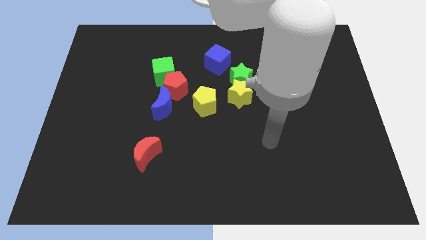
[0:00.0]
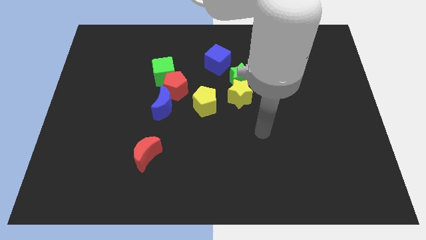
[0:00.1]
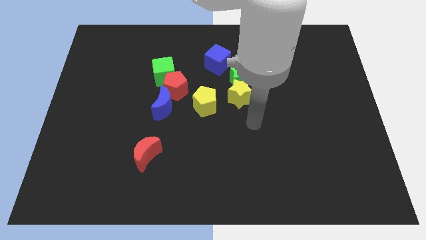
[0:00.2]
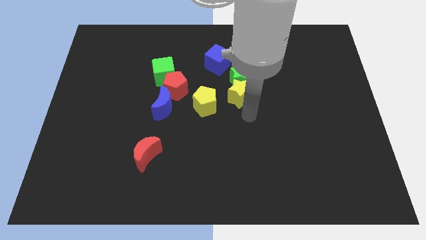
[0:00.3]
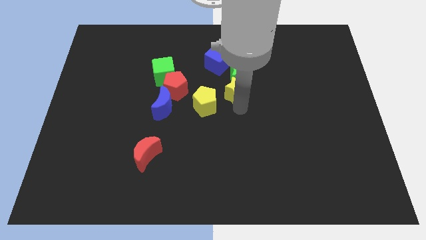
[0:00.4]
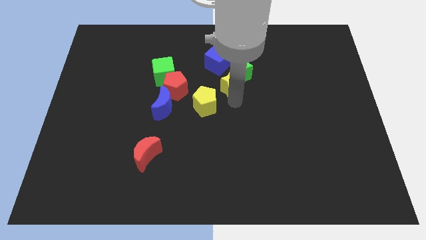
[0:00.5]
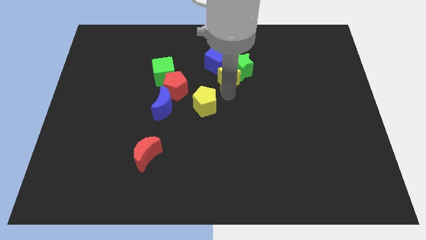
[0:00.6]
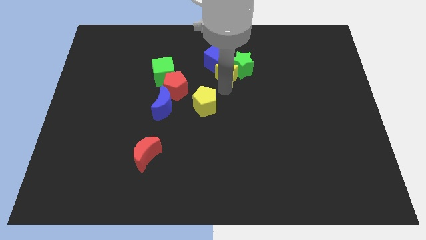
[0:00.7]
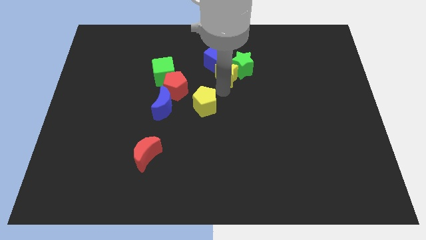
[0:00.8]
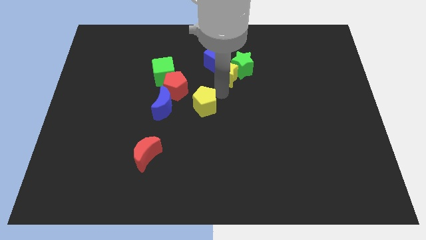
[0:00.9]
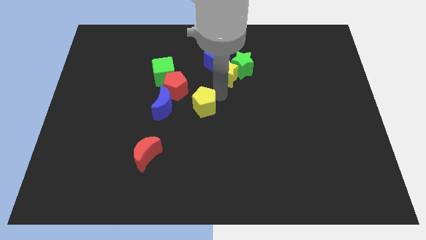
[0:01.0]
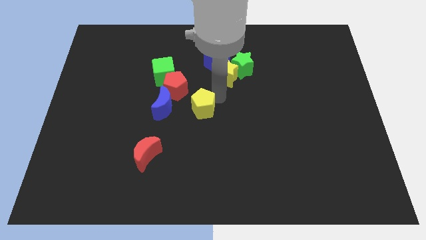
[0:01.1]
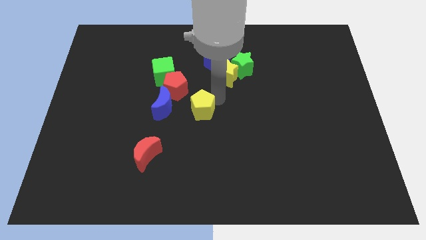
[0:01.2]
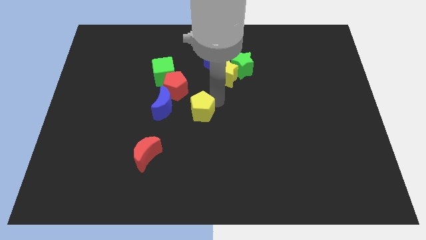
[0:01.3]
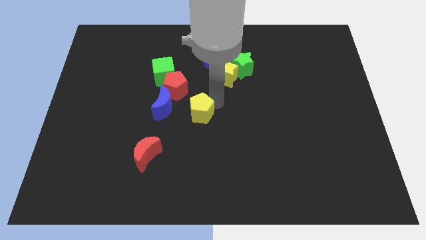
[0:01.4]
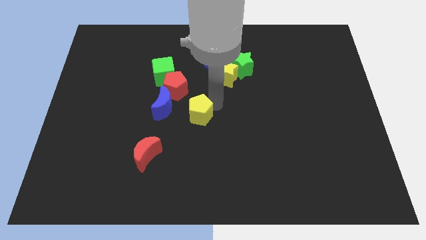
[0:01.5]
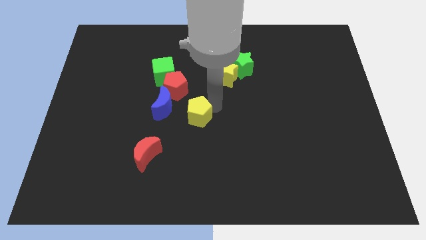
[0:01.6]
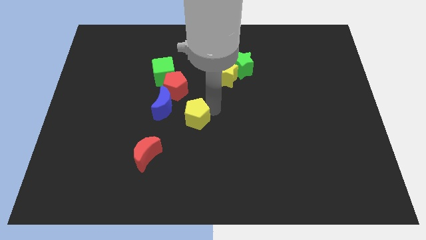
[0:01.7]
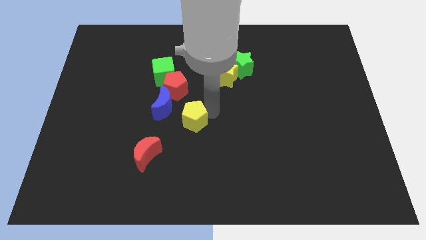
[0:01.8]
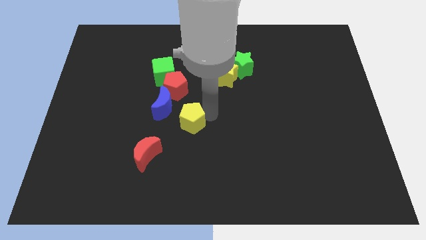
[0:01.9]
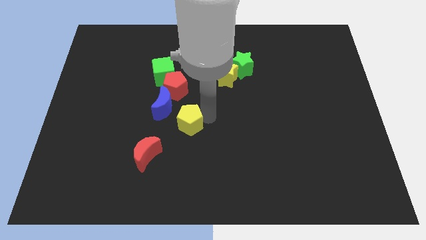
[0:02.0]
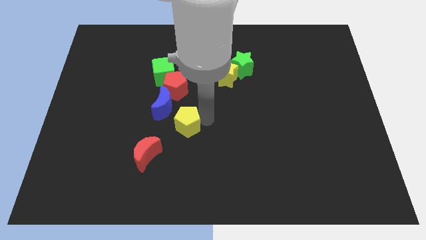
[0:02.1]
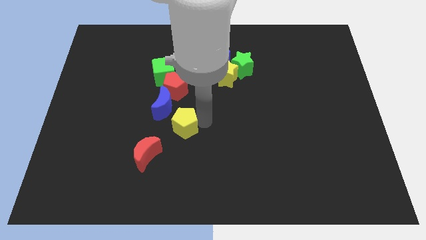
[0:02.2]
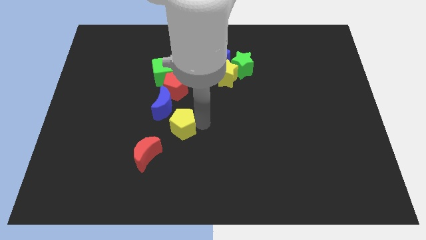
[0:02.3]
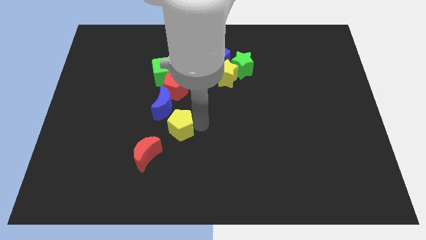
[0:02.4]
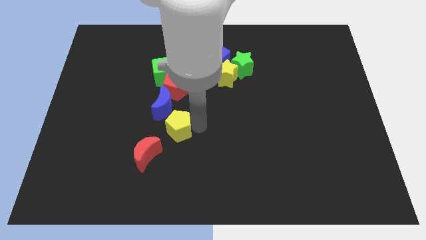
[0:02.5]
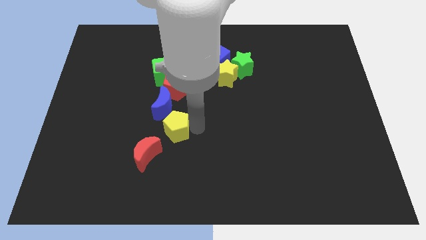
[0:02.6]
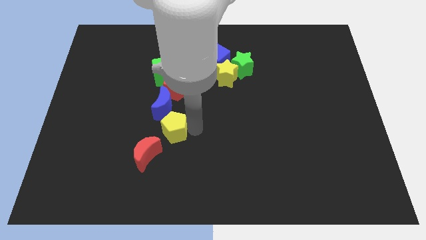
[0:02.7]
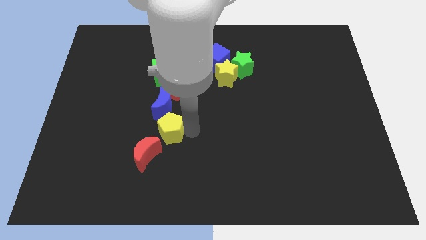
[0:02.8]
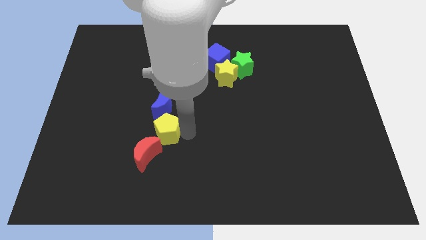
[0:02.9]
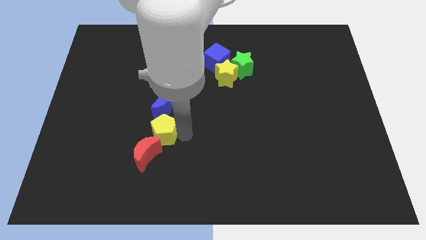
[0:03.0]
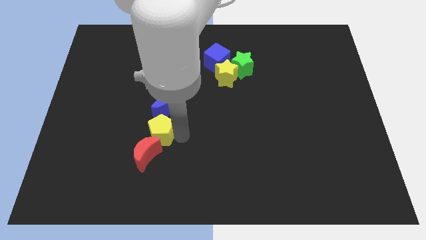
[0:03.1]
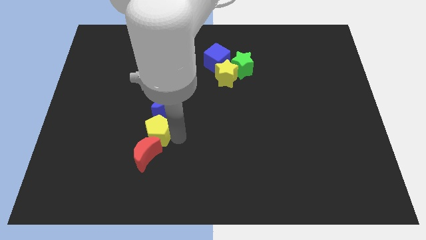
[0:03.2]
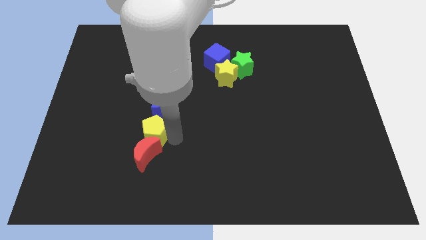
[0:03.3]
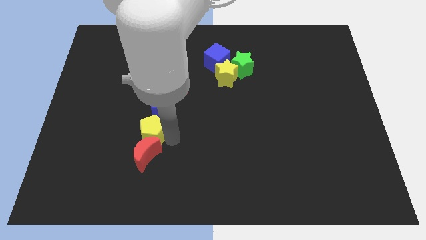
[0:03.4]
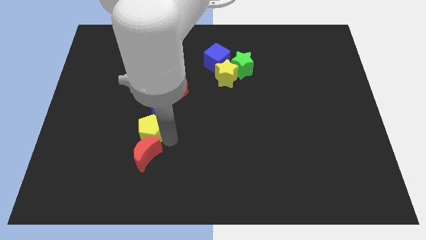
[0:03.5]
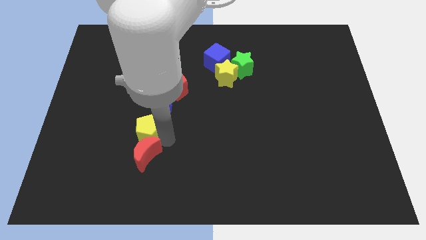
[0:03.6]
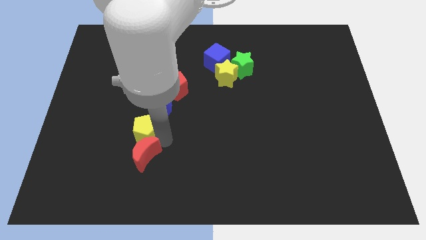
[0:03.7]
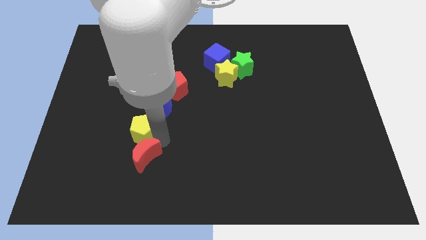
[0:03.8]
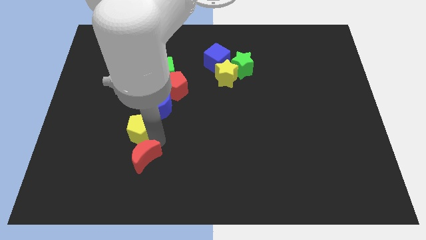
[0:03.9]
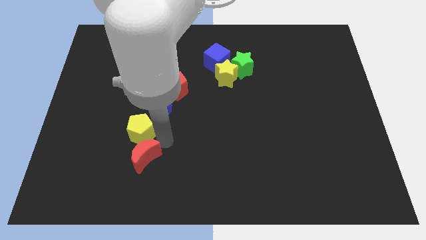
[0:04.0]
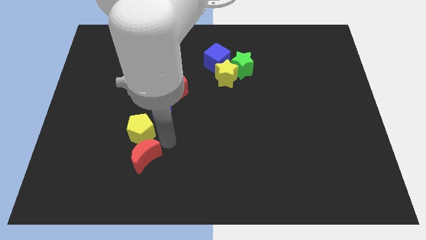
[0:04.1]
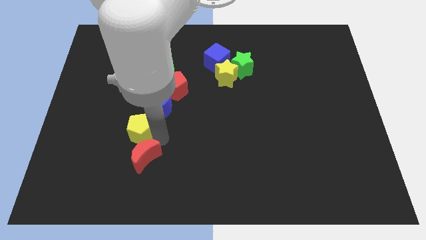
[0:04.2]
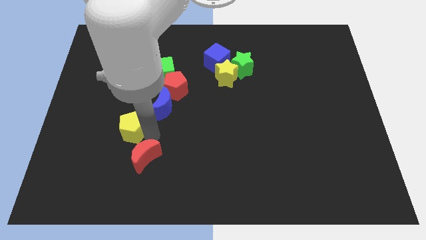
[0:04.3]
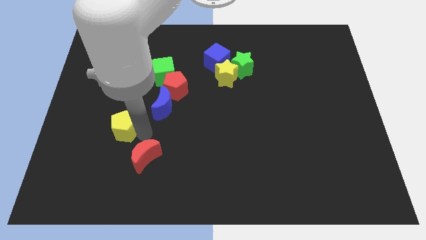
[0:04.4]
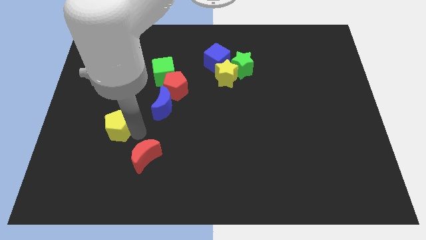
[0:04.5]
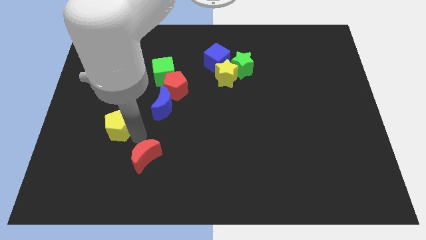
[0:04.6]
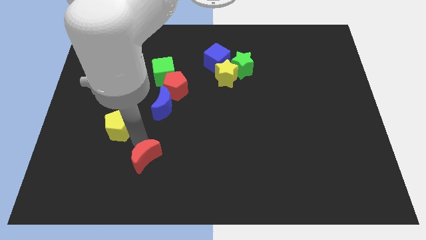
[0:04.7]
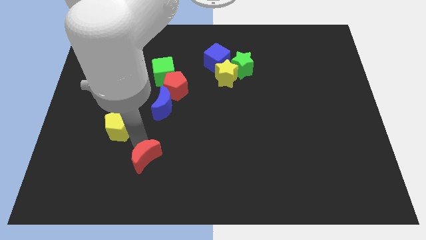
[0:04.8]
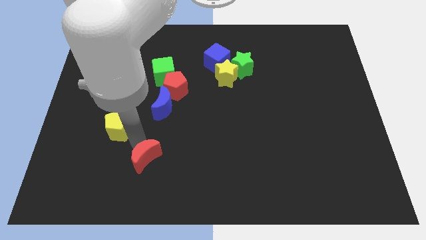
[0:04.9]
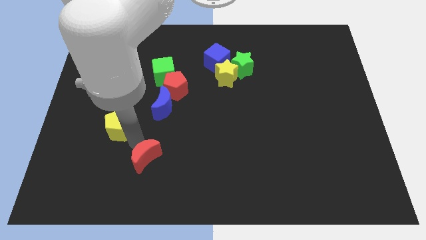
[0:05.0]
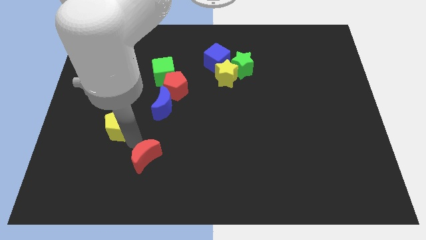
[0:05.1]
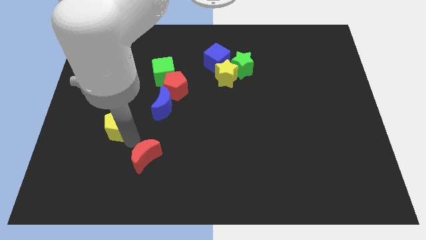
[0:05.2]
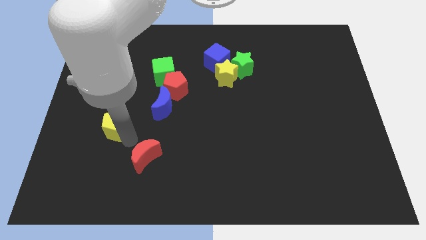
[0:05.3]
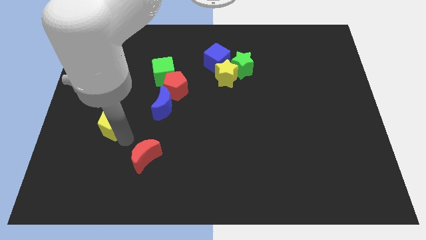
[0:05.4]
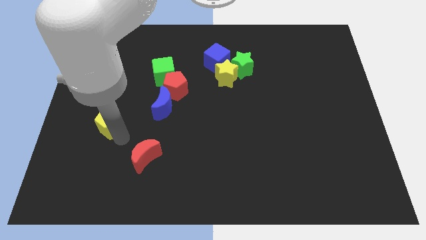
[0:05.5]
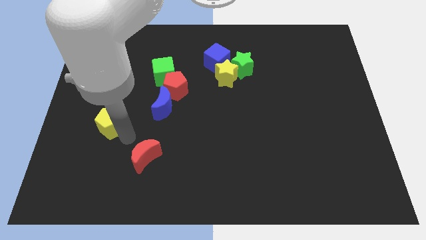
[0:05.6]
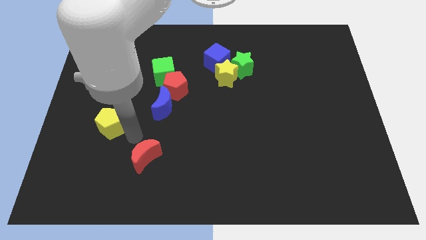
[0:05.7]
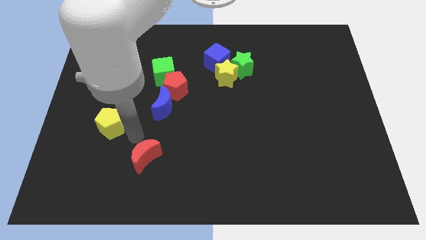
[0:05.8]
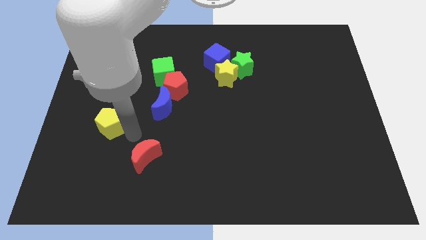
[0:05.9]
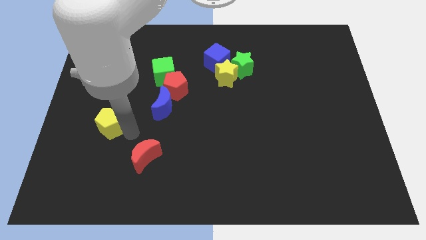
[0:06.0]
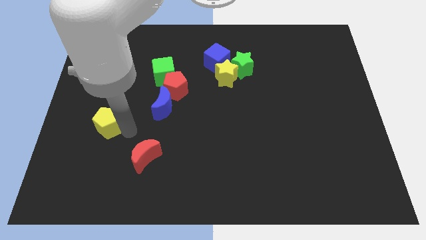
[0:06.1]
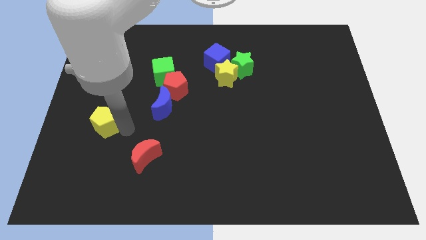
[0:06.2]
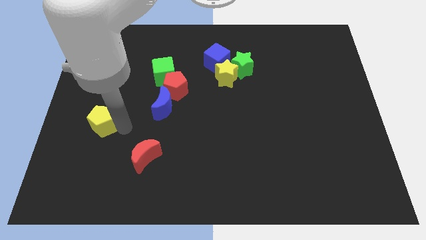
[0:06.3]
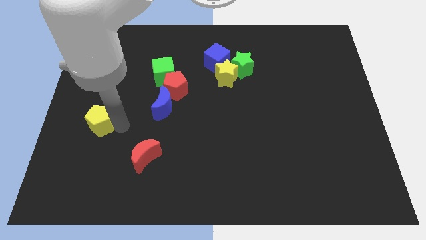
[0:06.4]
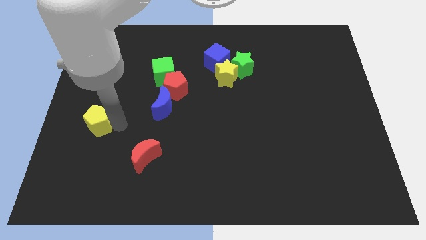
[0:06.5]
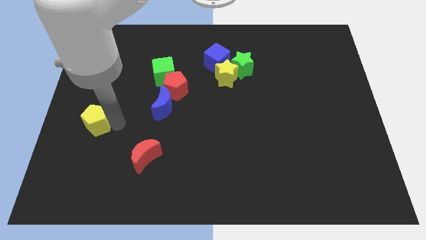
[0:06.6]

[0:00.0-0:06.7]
move the yellow pentagon to the left side of the board
